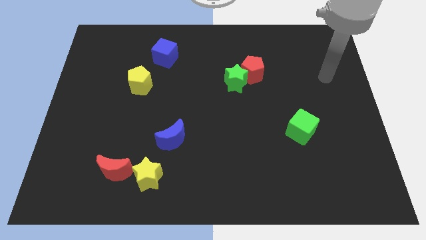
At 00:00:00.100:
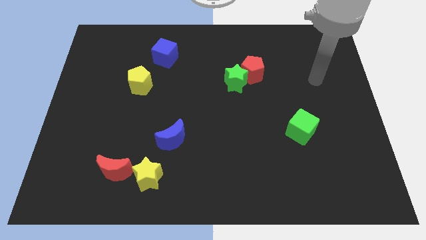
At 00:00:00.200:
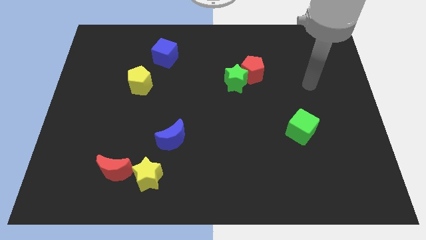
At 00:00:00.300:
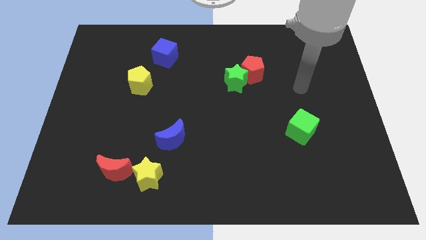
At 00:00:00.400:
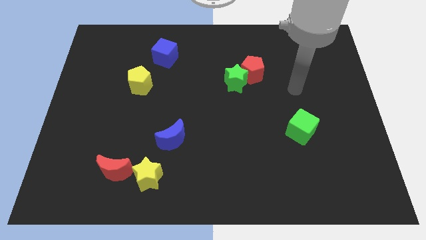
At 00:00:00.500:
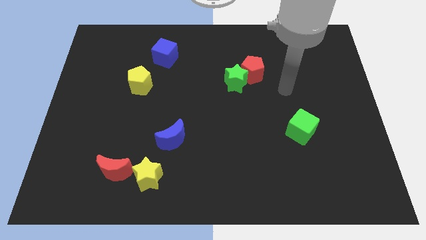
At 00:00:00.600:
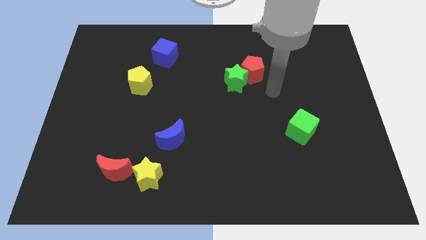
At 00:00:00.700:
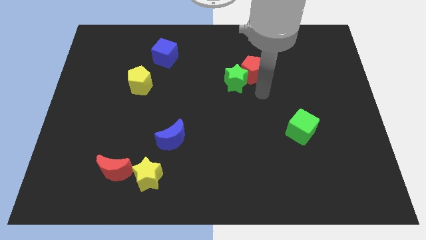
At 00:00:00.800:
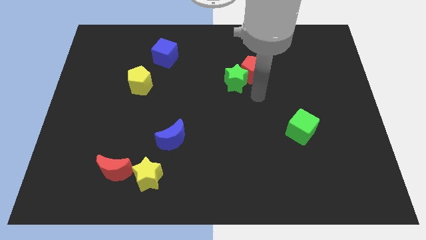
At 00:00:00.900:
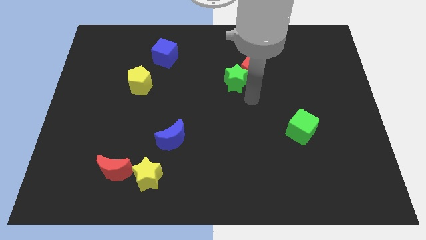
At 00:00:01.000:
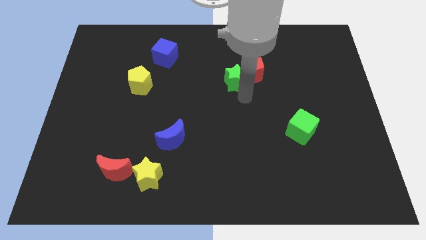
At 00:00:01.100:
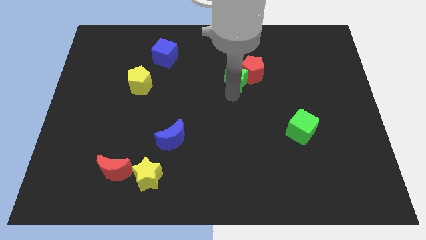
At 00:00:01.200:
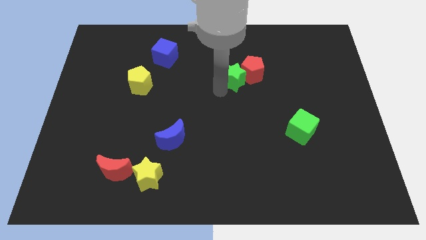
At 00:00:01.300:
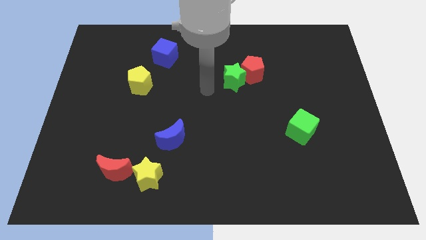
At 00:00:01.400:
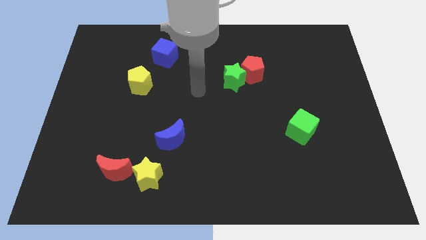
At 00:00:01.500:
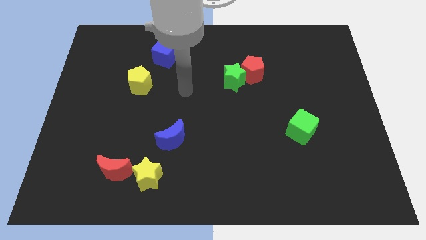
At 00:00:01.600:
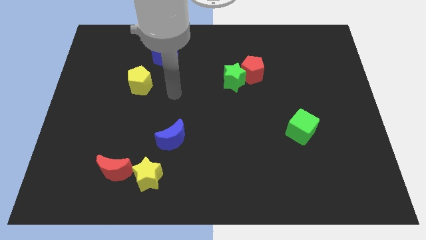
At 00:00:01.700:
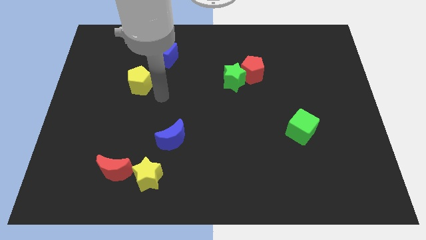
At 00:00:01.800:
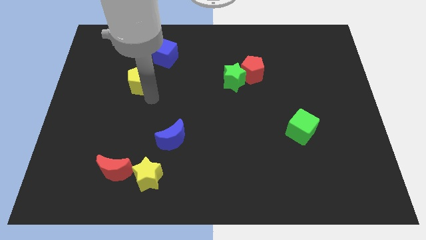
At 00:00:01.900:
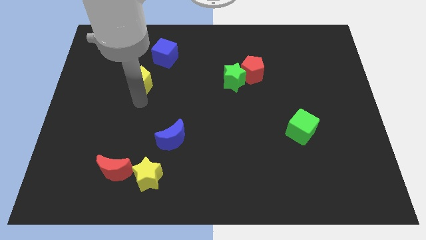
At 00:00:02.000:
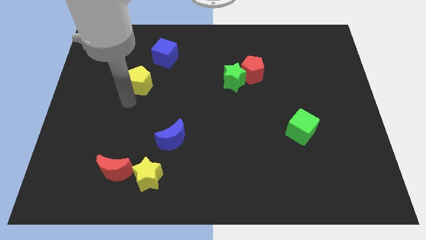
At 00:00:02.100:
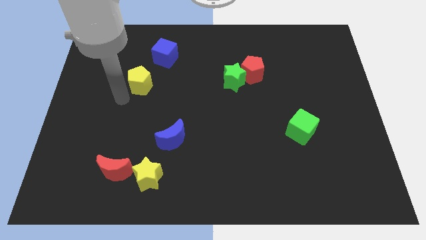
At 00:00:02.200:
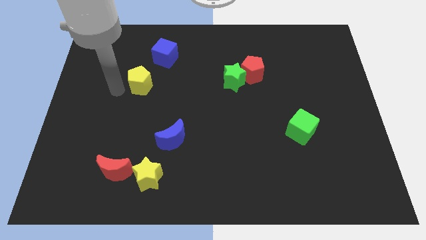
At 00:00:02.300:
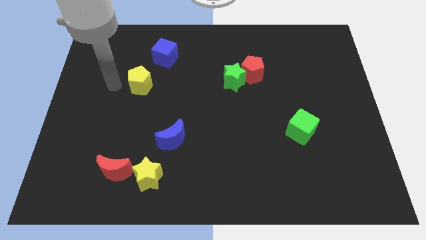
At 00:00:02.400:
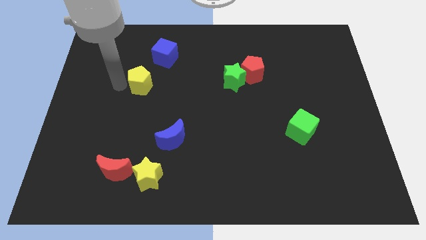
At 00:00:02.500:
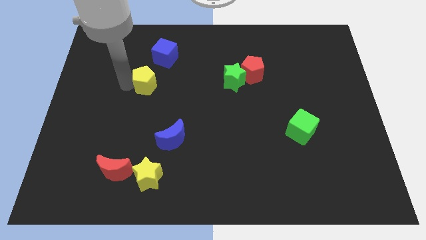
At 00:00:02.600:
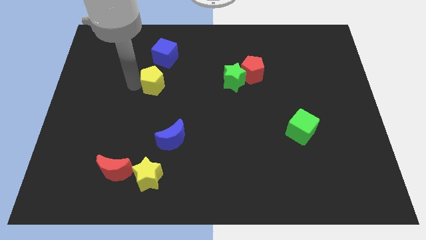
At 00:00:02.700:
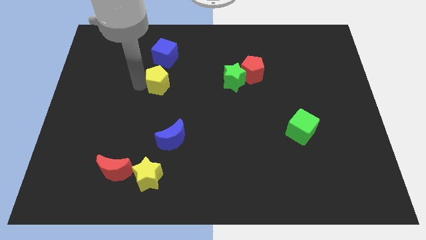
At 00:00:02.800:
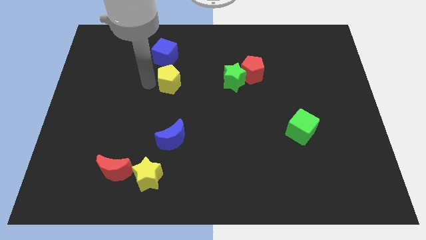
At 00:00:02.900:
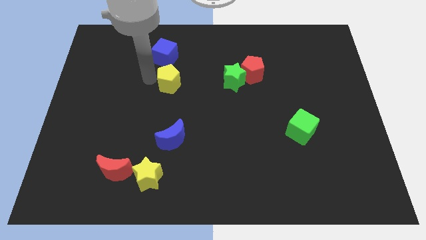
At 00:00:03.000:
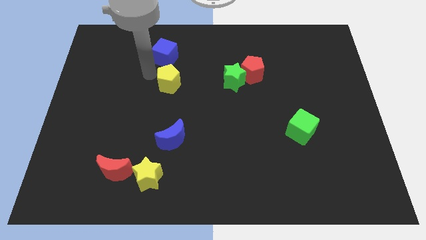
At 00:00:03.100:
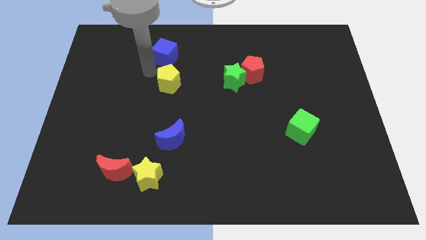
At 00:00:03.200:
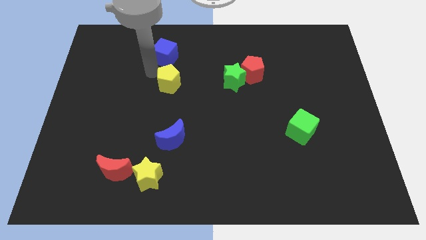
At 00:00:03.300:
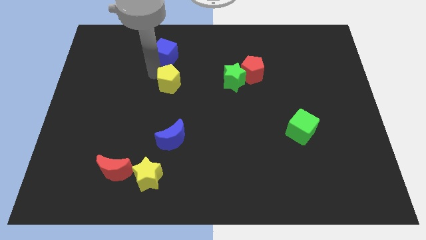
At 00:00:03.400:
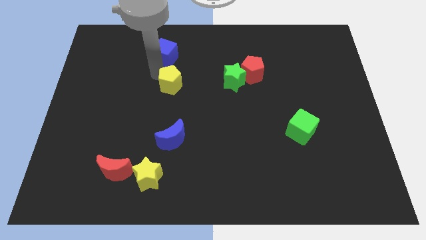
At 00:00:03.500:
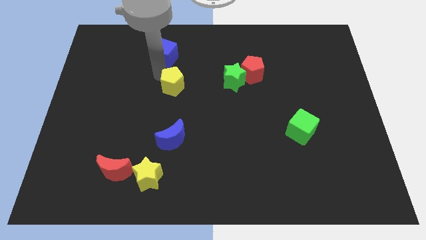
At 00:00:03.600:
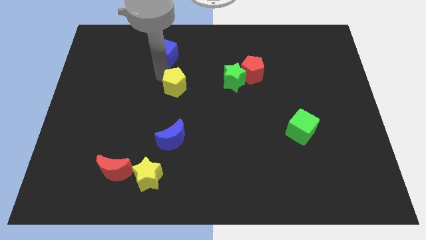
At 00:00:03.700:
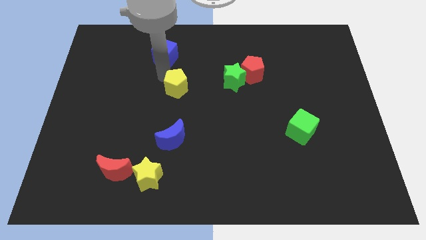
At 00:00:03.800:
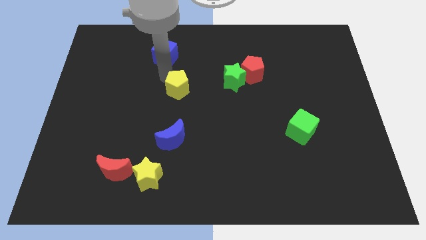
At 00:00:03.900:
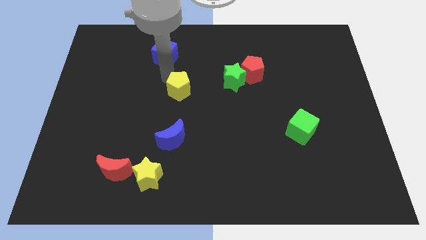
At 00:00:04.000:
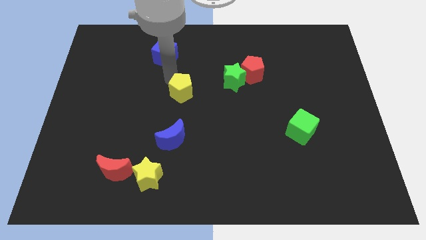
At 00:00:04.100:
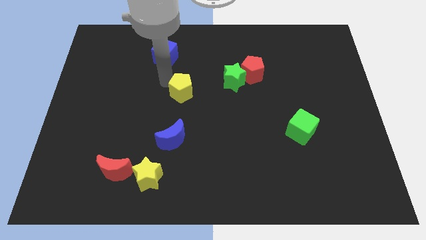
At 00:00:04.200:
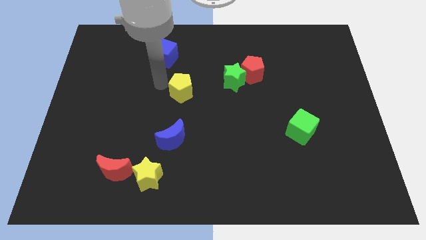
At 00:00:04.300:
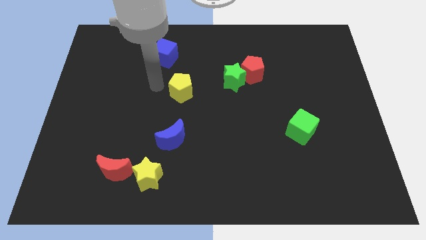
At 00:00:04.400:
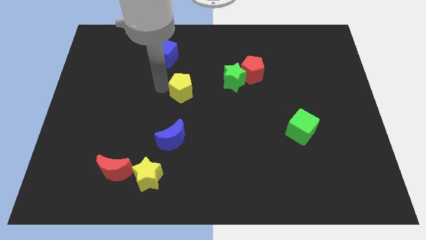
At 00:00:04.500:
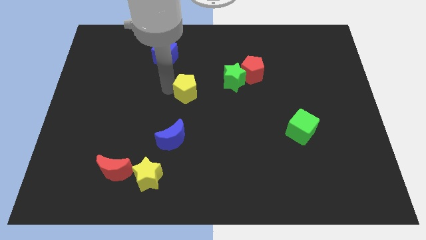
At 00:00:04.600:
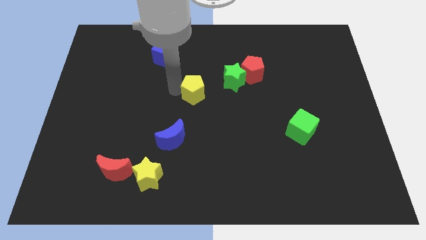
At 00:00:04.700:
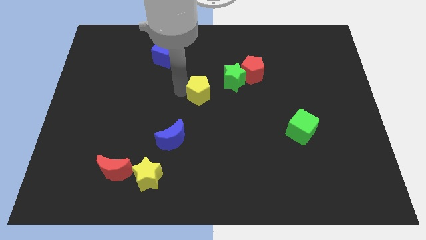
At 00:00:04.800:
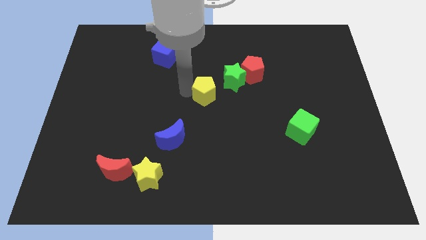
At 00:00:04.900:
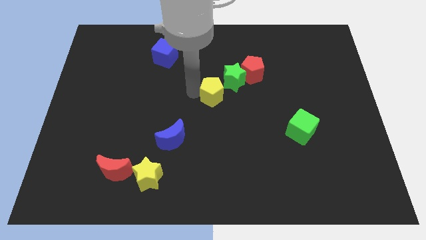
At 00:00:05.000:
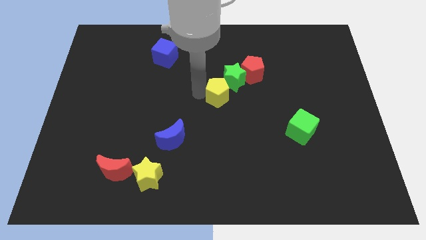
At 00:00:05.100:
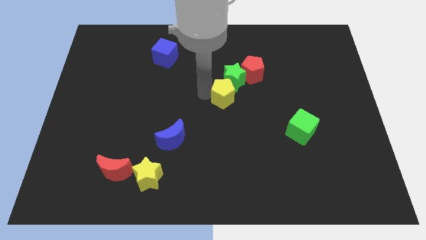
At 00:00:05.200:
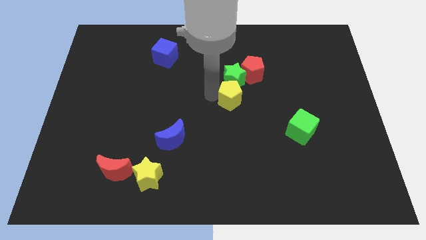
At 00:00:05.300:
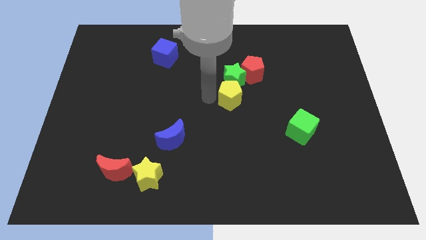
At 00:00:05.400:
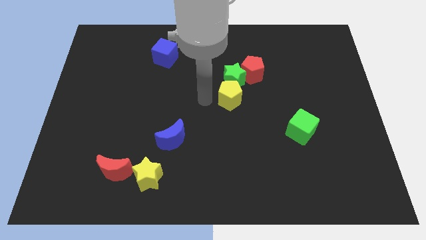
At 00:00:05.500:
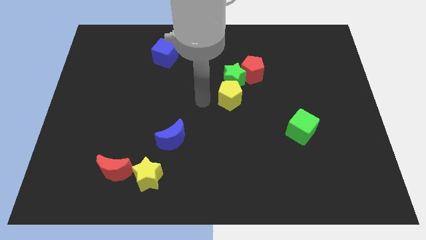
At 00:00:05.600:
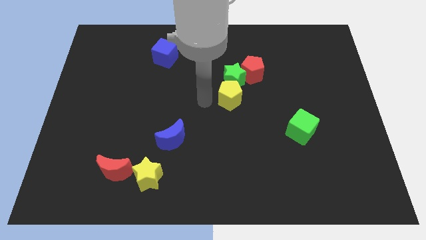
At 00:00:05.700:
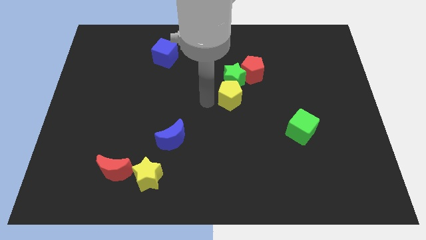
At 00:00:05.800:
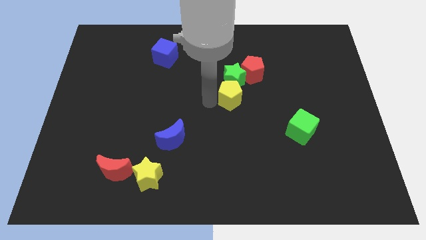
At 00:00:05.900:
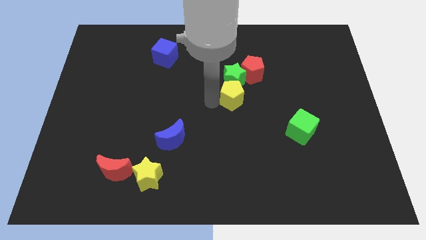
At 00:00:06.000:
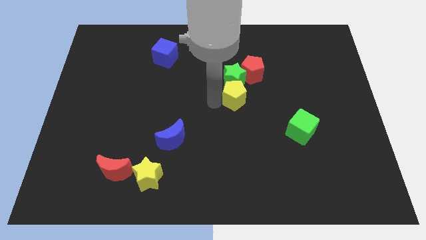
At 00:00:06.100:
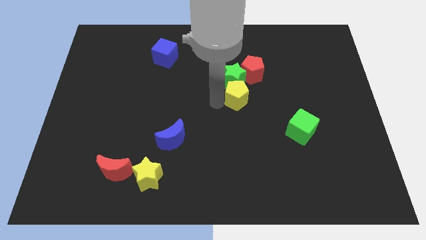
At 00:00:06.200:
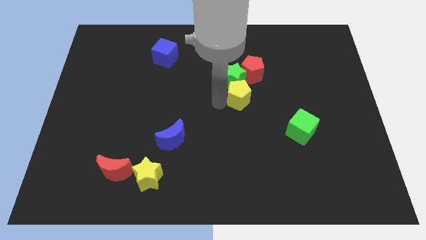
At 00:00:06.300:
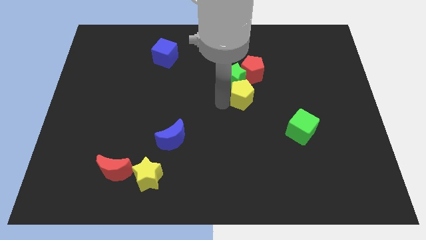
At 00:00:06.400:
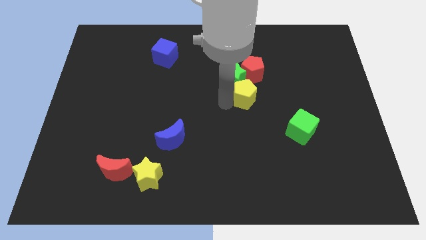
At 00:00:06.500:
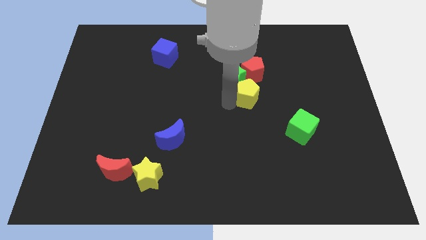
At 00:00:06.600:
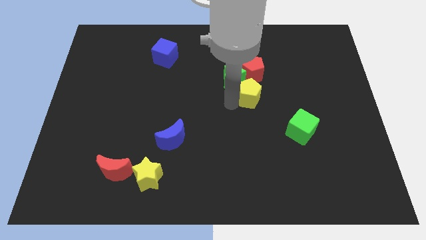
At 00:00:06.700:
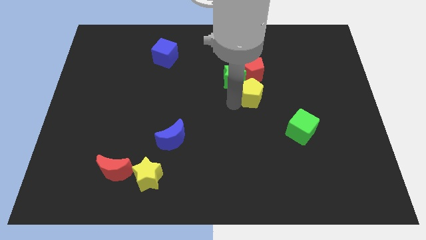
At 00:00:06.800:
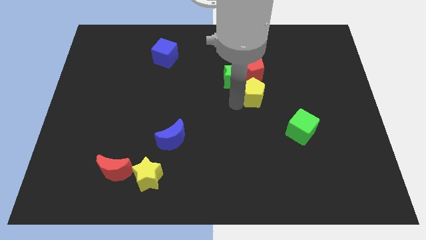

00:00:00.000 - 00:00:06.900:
slide the yellow pentagon to the right side of the green star
